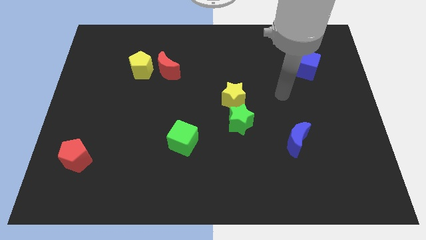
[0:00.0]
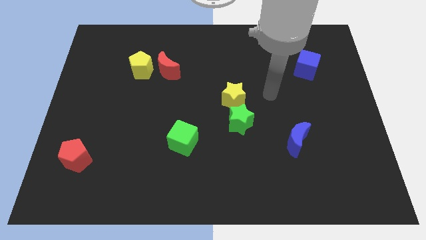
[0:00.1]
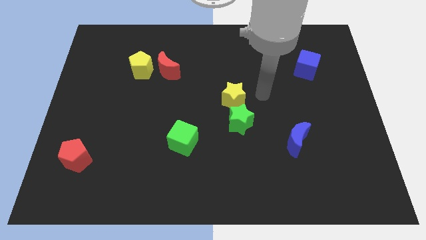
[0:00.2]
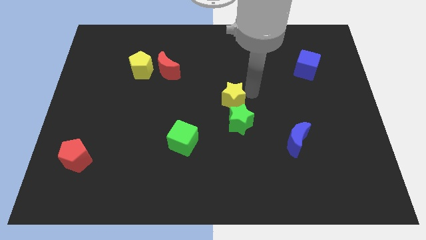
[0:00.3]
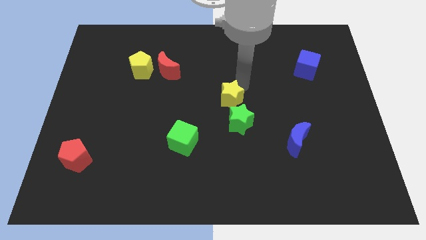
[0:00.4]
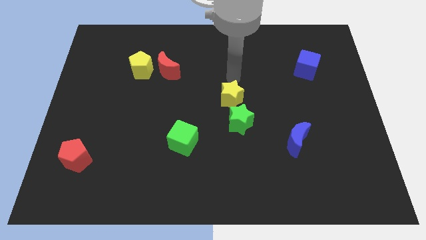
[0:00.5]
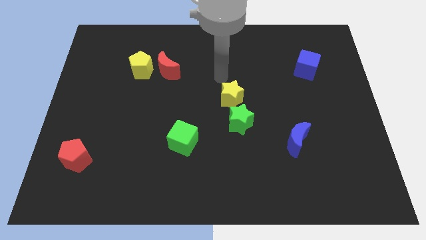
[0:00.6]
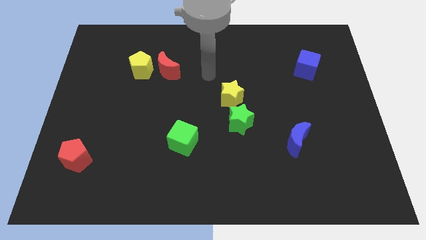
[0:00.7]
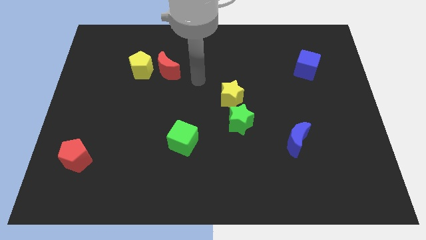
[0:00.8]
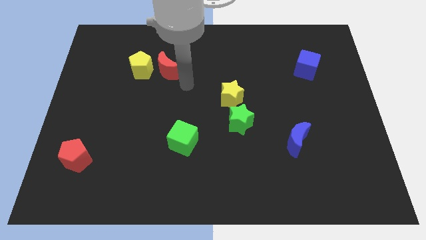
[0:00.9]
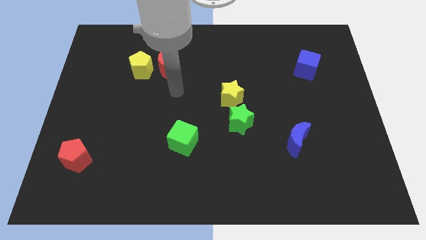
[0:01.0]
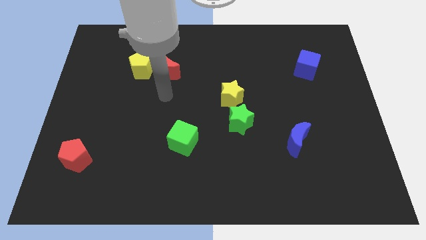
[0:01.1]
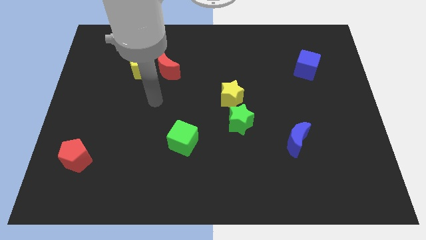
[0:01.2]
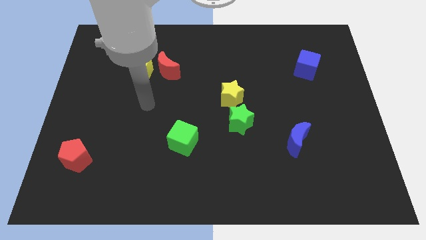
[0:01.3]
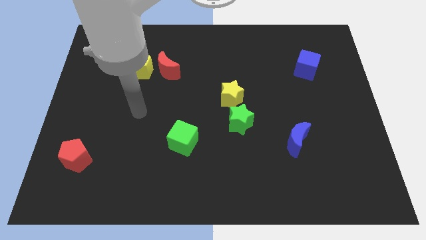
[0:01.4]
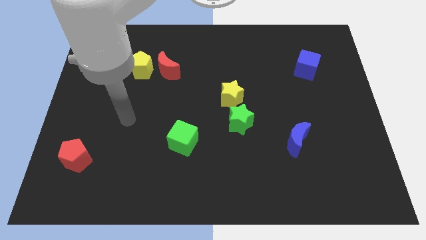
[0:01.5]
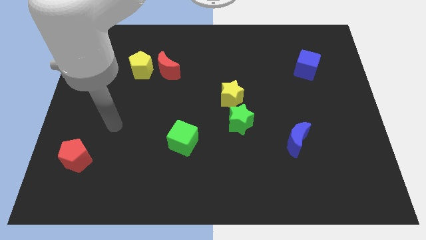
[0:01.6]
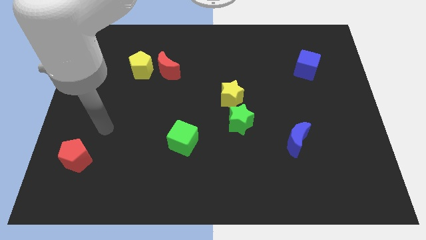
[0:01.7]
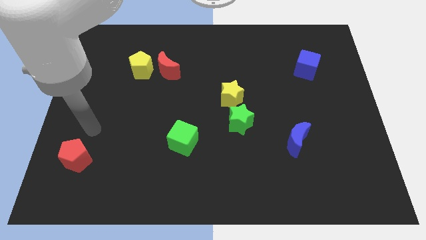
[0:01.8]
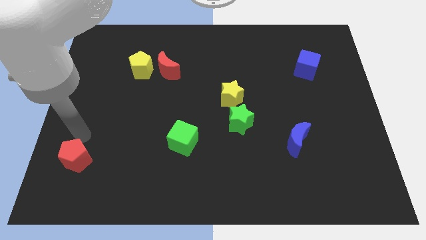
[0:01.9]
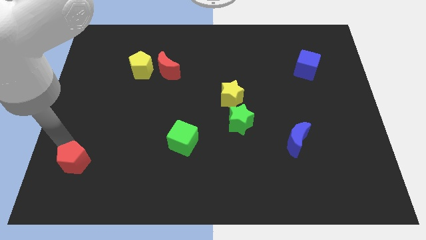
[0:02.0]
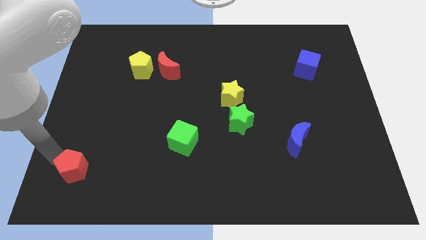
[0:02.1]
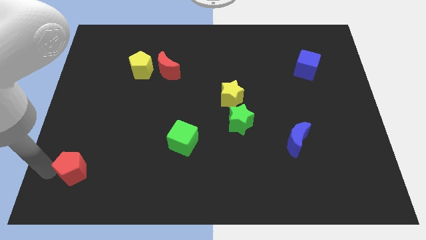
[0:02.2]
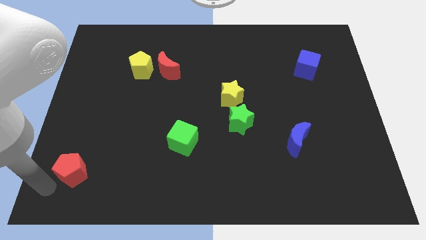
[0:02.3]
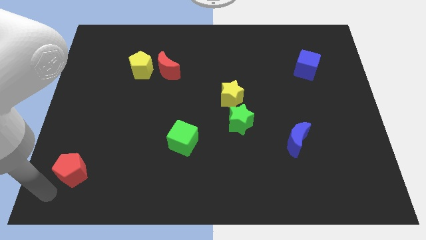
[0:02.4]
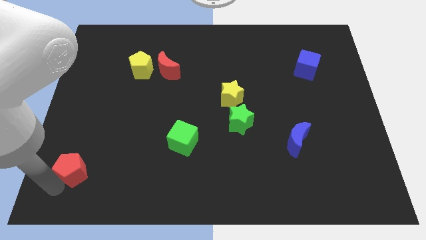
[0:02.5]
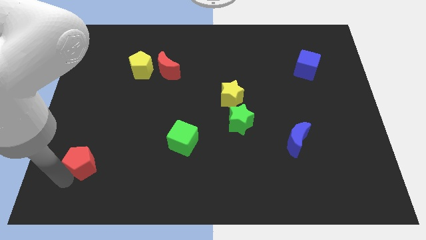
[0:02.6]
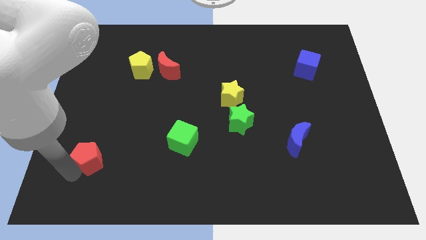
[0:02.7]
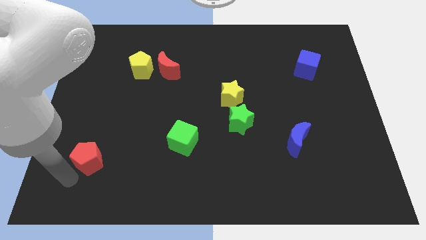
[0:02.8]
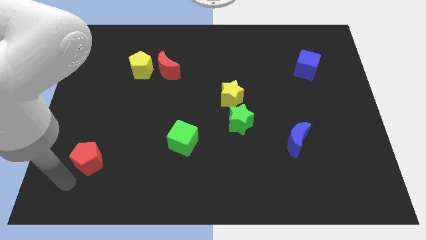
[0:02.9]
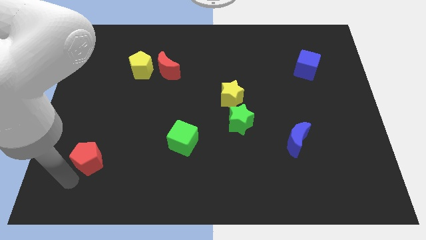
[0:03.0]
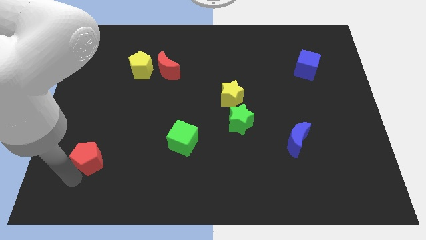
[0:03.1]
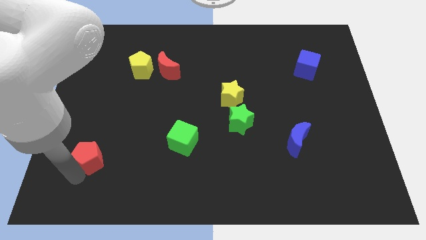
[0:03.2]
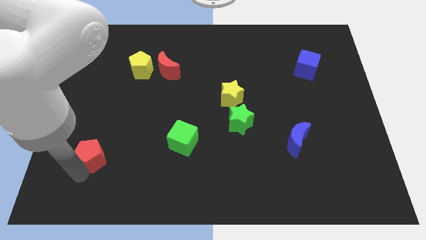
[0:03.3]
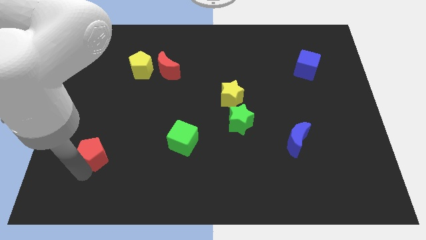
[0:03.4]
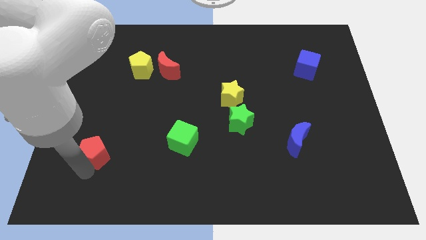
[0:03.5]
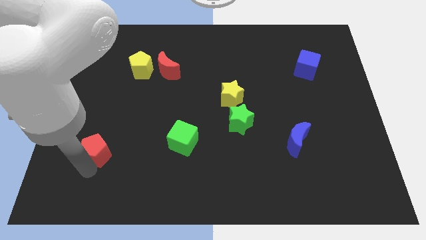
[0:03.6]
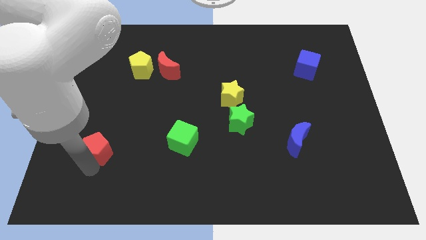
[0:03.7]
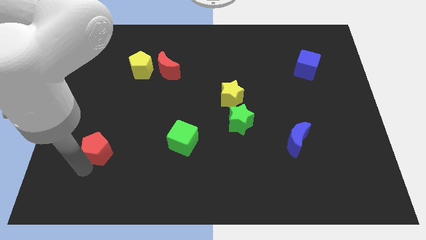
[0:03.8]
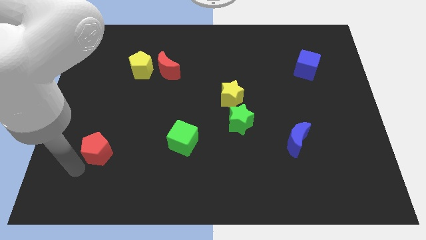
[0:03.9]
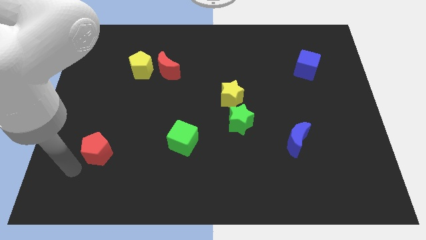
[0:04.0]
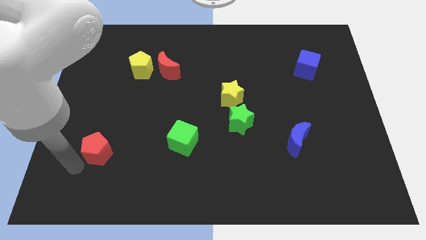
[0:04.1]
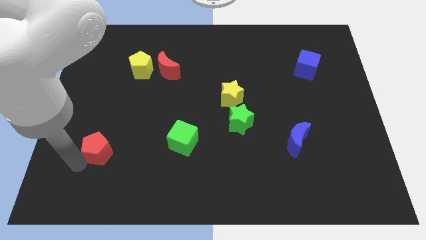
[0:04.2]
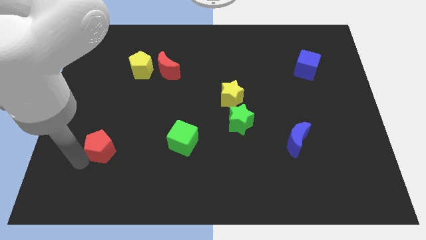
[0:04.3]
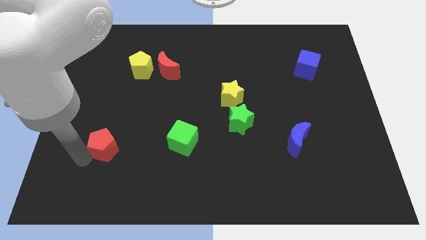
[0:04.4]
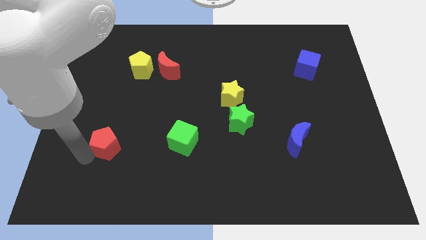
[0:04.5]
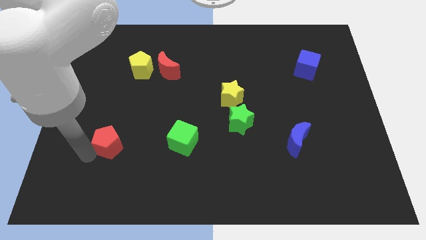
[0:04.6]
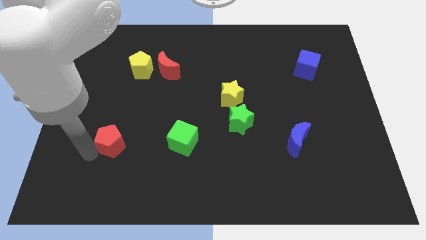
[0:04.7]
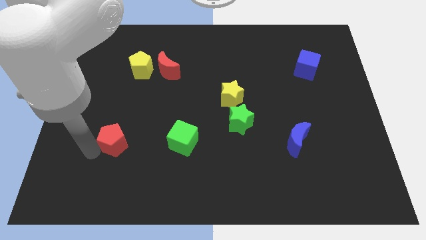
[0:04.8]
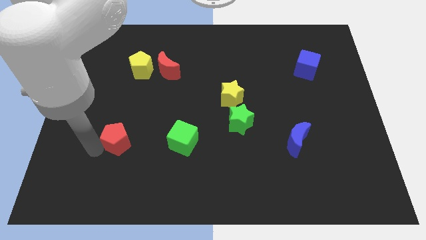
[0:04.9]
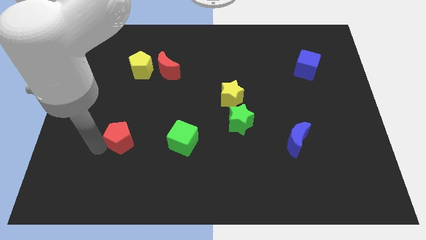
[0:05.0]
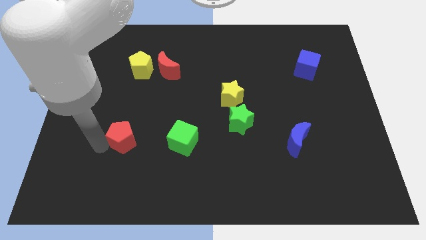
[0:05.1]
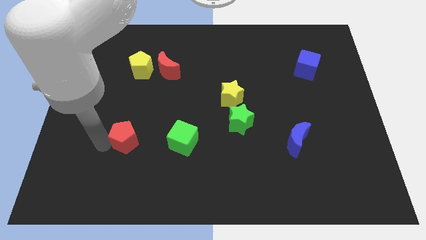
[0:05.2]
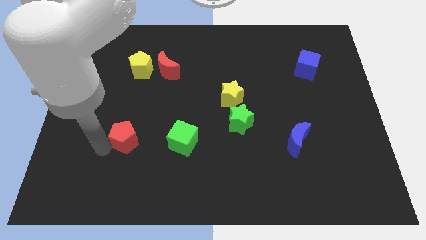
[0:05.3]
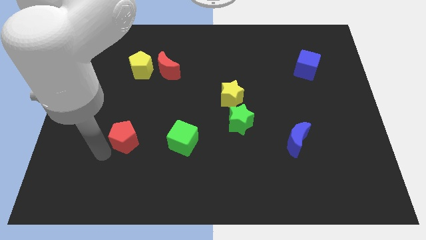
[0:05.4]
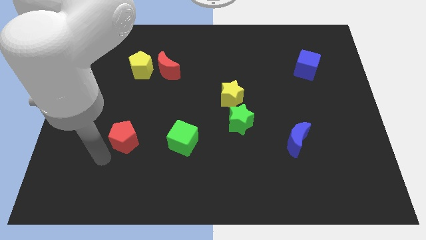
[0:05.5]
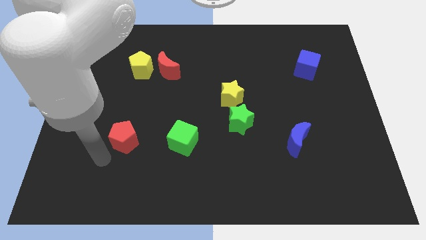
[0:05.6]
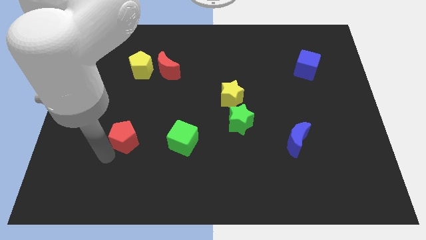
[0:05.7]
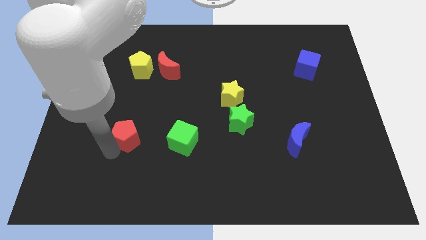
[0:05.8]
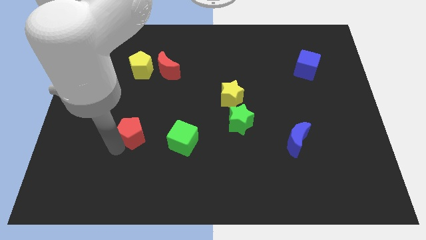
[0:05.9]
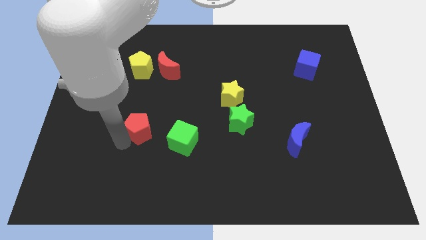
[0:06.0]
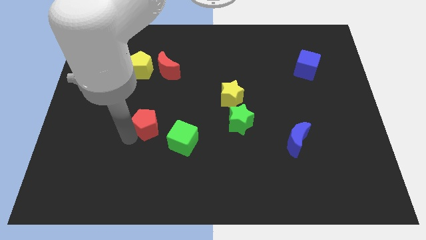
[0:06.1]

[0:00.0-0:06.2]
slide the red pentagon to the top left of the green cube
